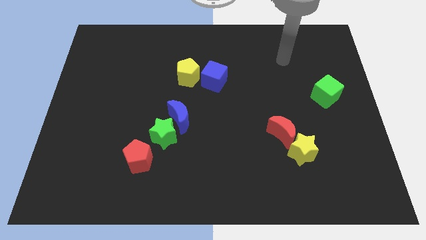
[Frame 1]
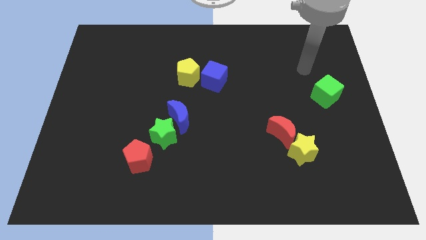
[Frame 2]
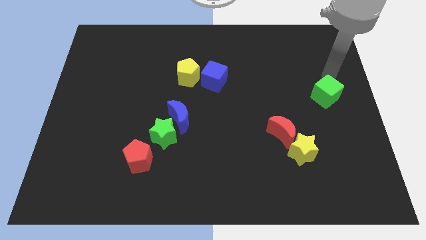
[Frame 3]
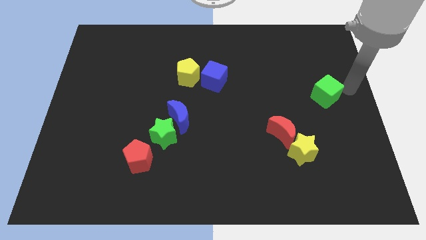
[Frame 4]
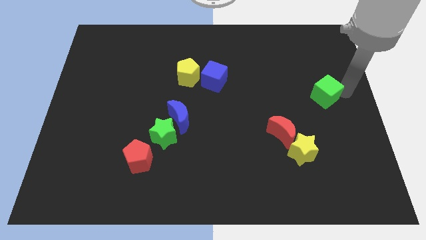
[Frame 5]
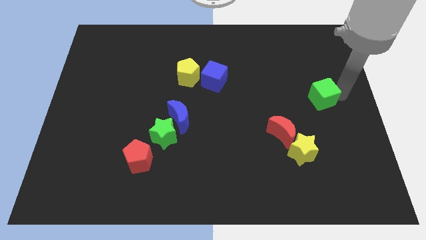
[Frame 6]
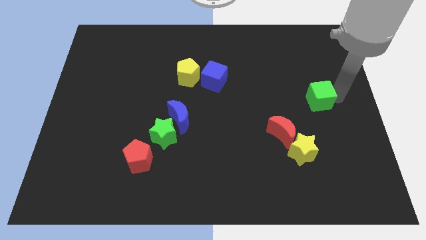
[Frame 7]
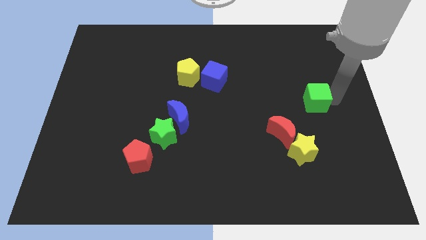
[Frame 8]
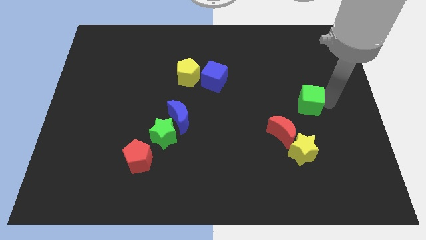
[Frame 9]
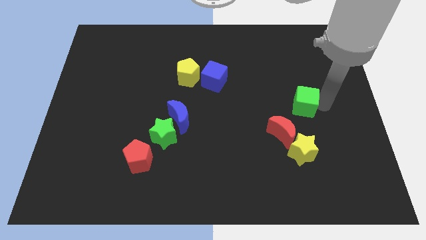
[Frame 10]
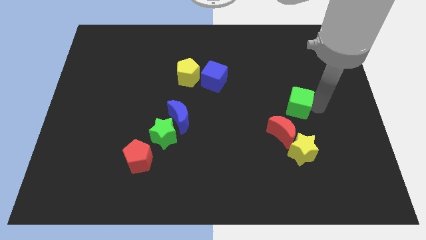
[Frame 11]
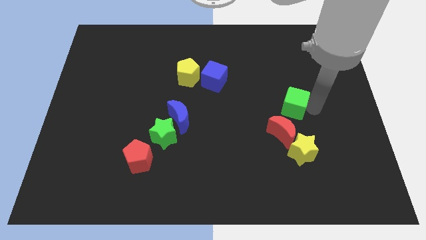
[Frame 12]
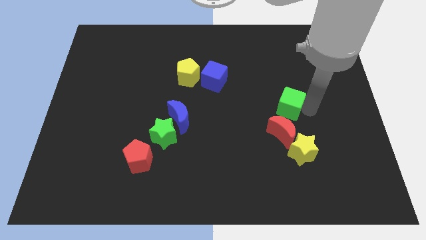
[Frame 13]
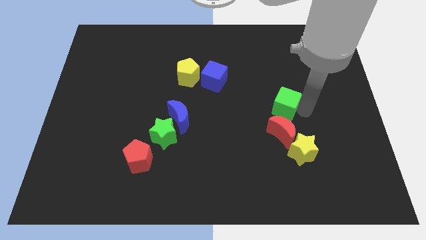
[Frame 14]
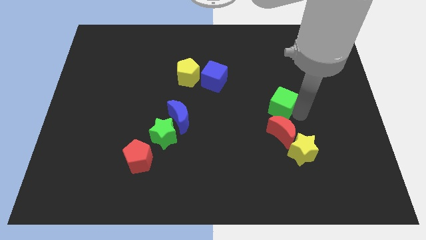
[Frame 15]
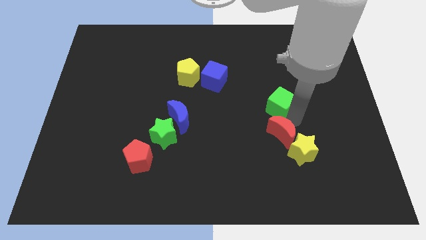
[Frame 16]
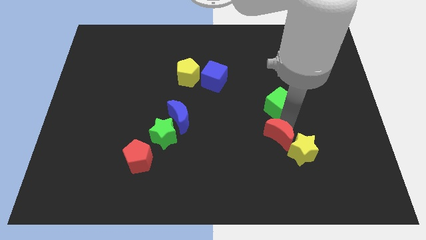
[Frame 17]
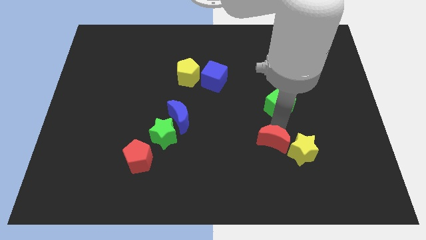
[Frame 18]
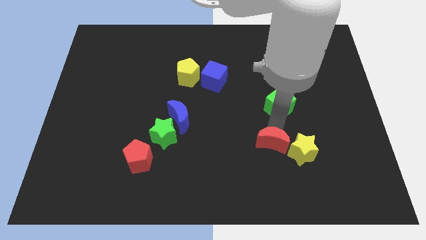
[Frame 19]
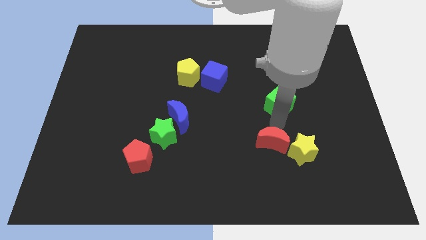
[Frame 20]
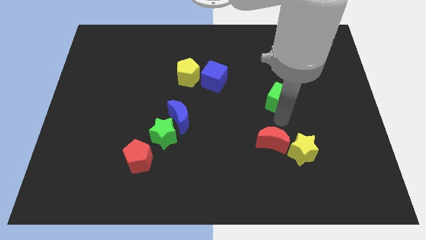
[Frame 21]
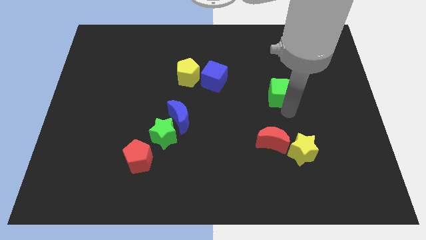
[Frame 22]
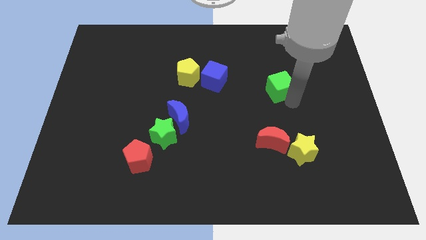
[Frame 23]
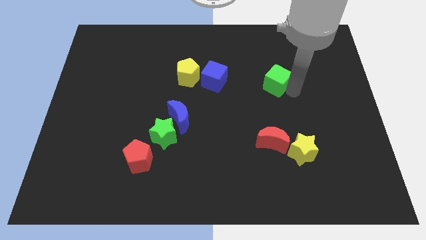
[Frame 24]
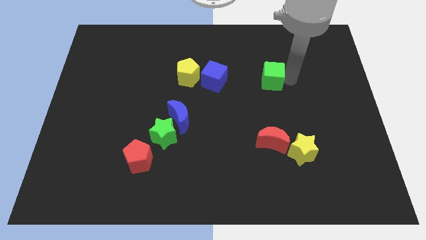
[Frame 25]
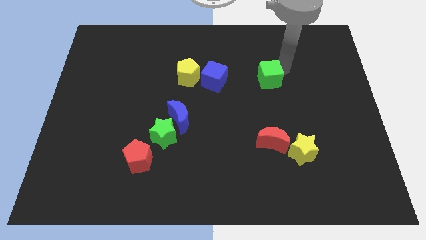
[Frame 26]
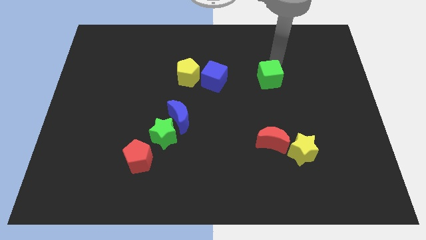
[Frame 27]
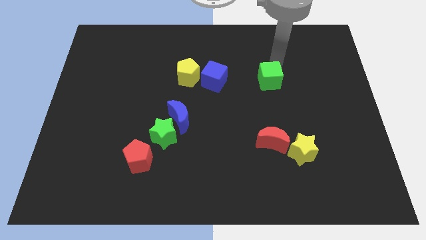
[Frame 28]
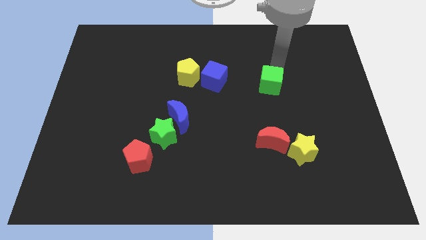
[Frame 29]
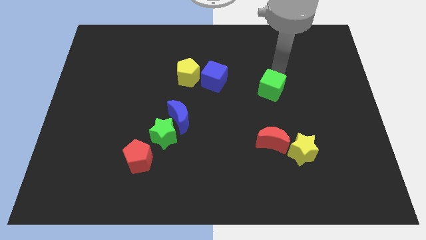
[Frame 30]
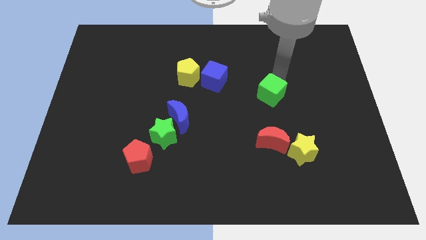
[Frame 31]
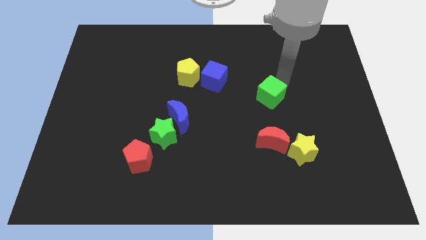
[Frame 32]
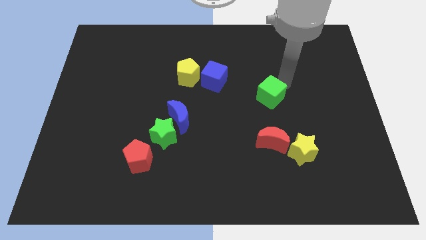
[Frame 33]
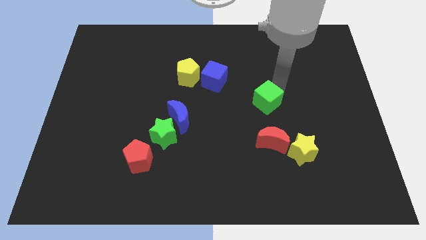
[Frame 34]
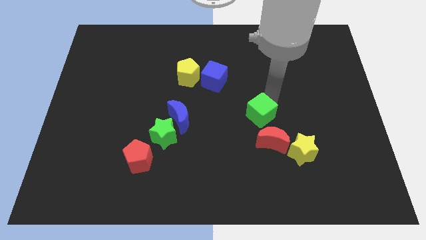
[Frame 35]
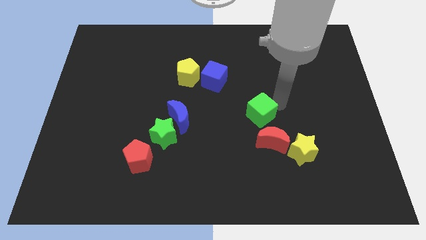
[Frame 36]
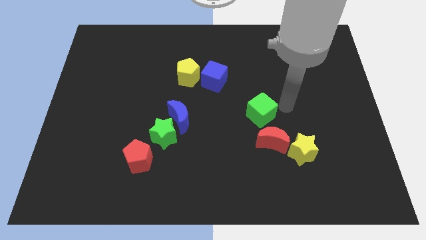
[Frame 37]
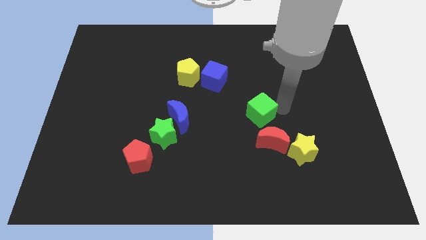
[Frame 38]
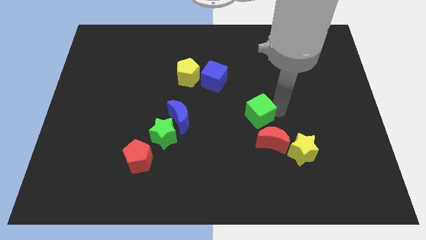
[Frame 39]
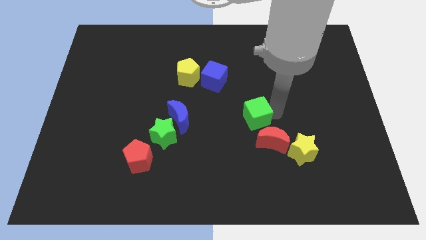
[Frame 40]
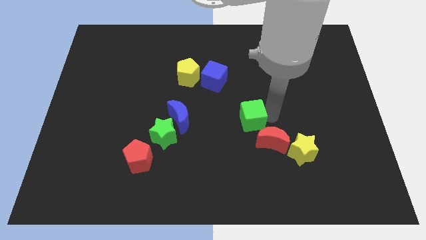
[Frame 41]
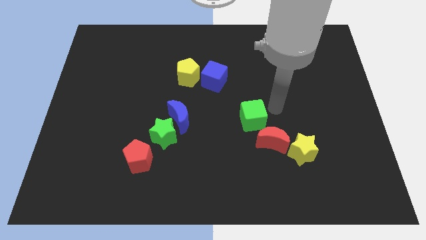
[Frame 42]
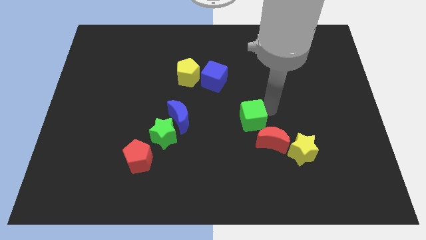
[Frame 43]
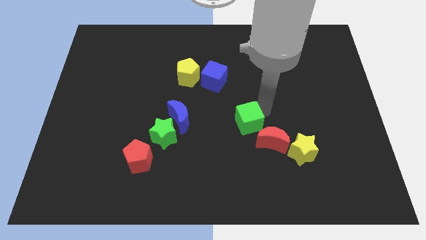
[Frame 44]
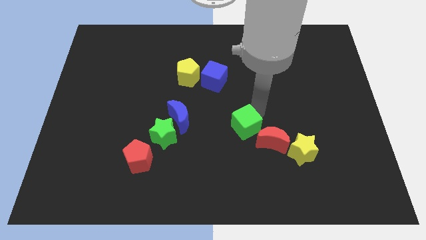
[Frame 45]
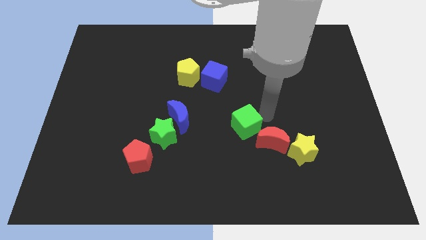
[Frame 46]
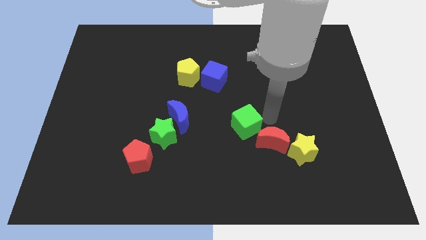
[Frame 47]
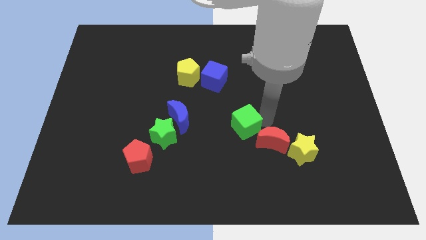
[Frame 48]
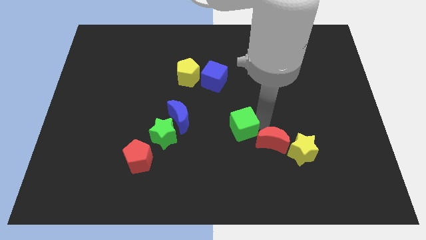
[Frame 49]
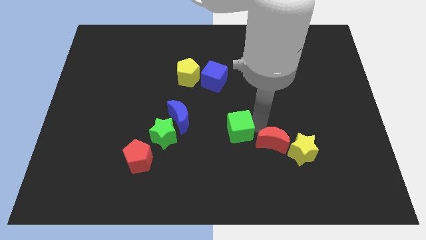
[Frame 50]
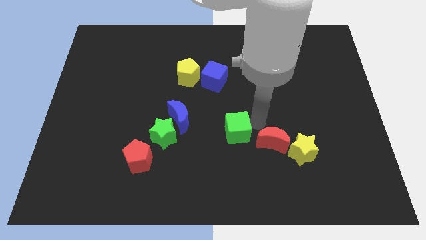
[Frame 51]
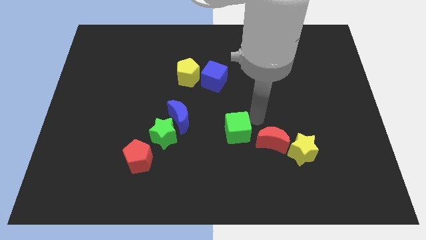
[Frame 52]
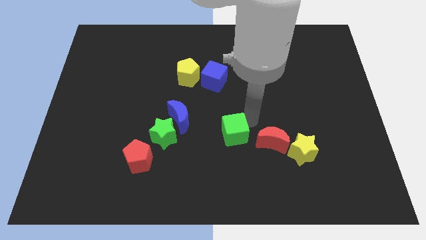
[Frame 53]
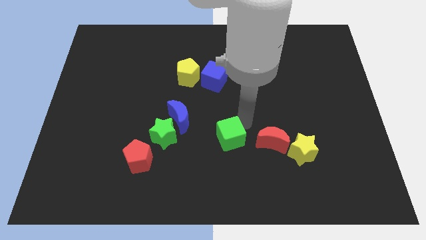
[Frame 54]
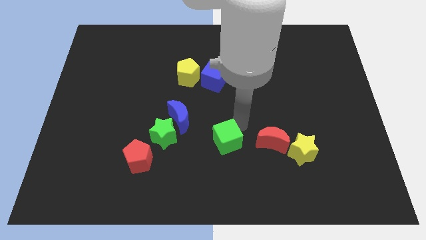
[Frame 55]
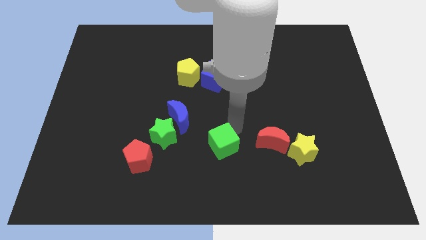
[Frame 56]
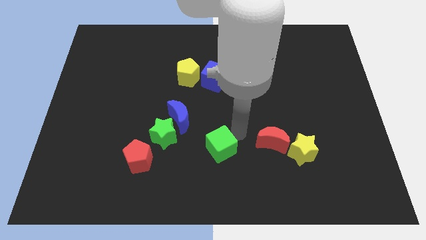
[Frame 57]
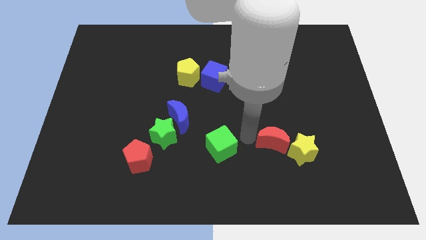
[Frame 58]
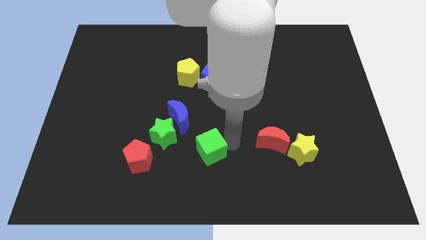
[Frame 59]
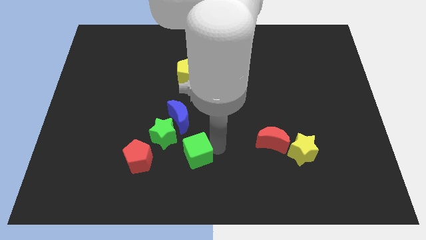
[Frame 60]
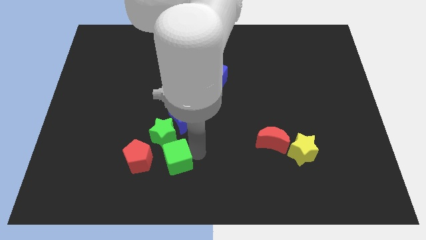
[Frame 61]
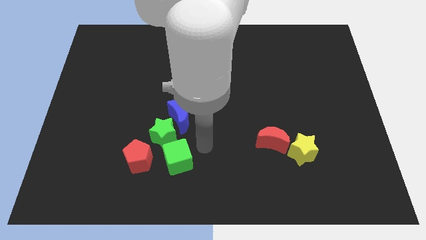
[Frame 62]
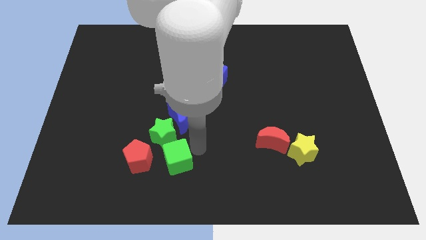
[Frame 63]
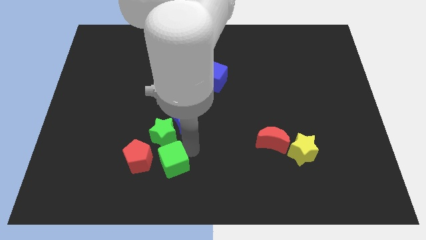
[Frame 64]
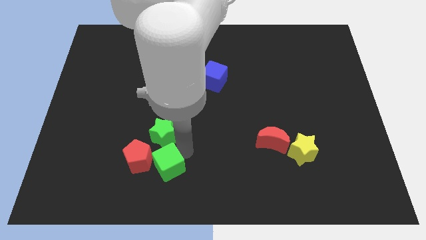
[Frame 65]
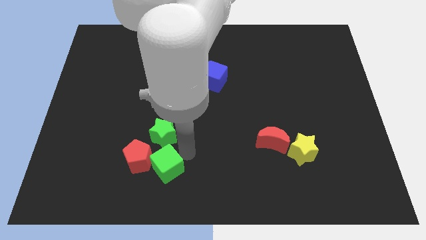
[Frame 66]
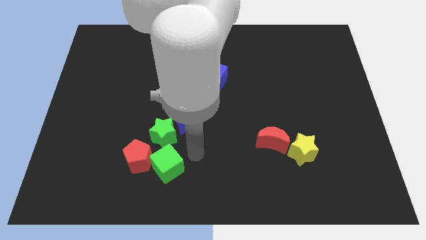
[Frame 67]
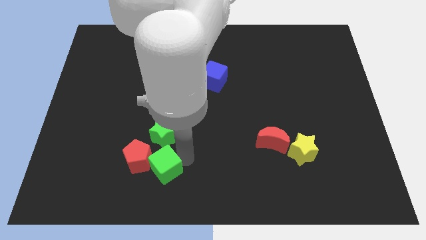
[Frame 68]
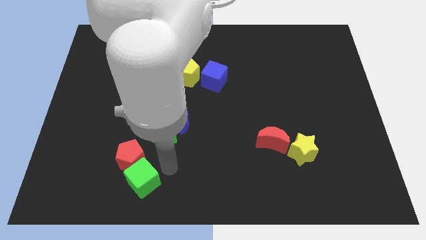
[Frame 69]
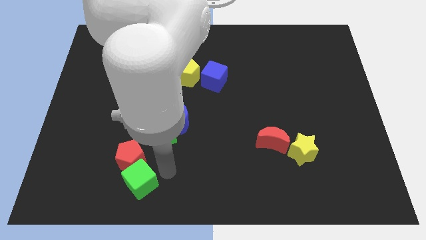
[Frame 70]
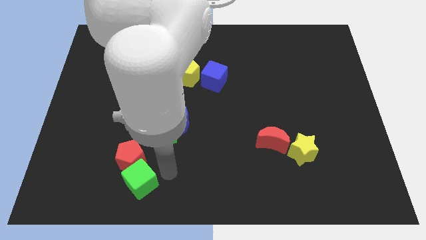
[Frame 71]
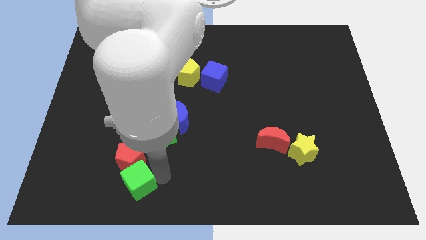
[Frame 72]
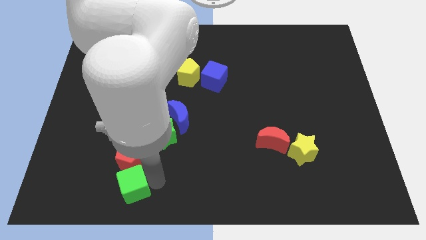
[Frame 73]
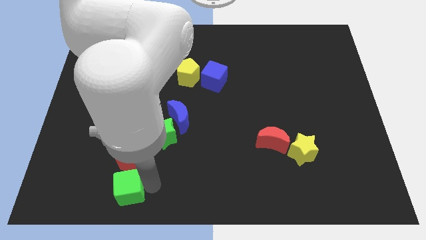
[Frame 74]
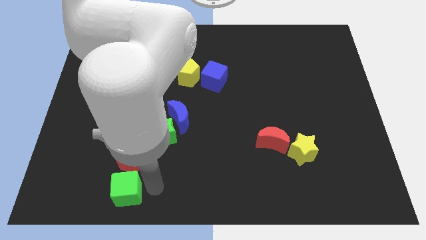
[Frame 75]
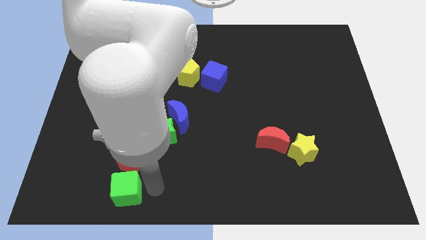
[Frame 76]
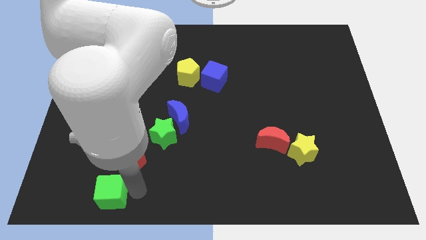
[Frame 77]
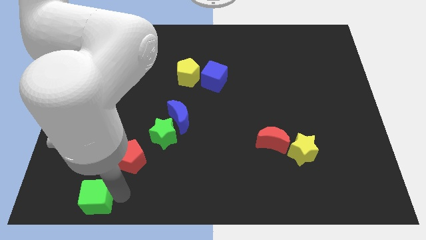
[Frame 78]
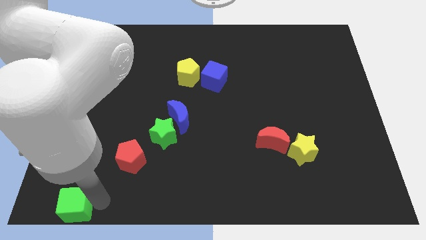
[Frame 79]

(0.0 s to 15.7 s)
slide the green cube to the bottom left
